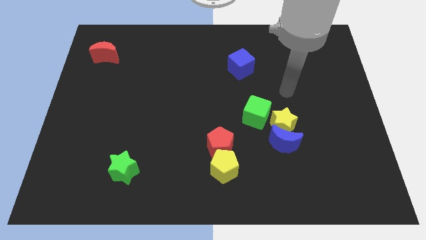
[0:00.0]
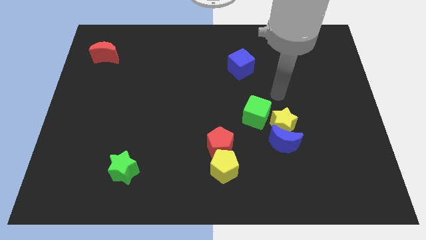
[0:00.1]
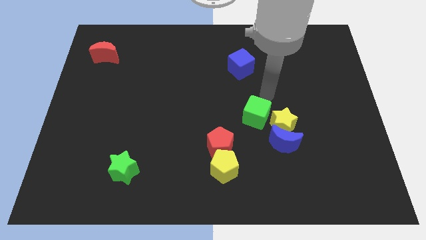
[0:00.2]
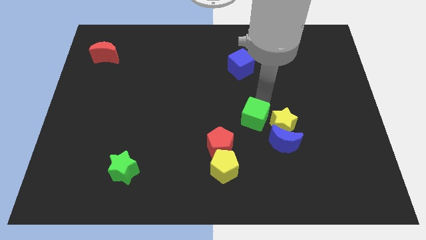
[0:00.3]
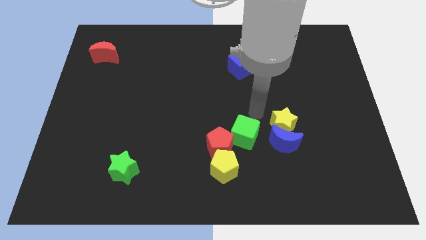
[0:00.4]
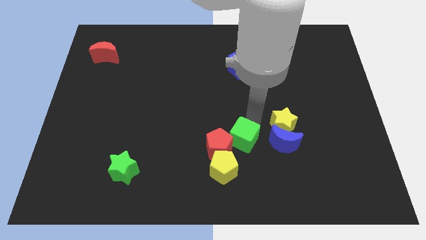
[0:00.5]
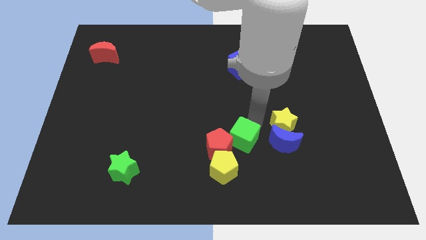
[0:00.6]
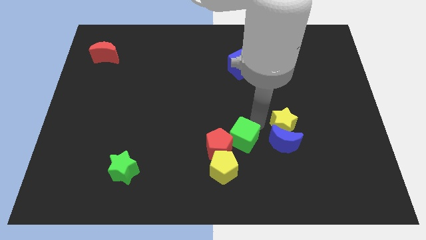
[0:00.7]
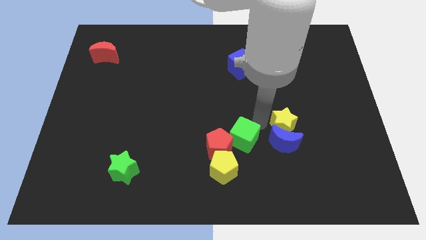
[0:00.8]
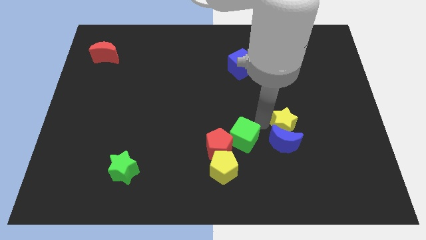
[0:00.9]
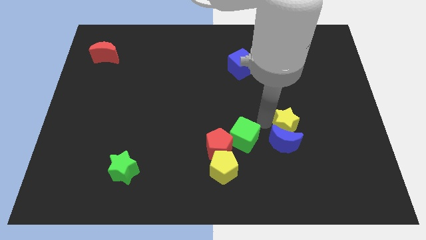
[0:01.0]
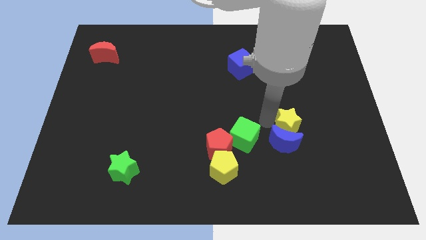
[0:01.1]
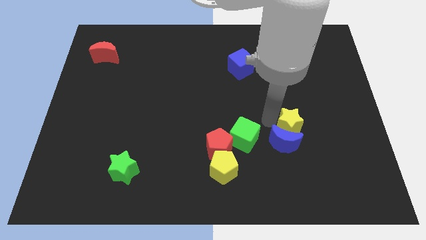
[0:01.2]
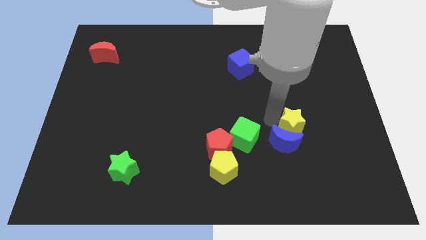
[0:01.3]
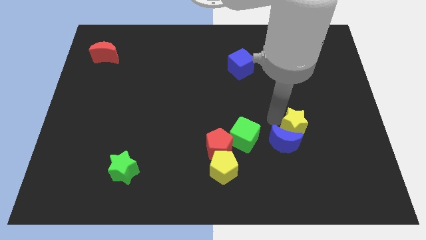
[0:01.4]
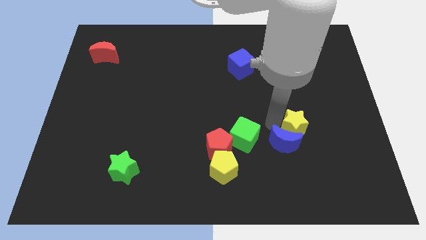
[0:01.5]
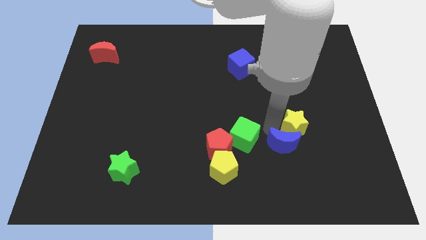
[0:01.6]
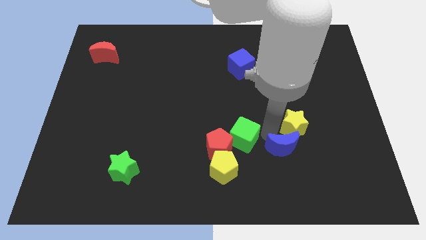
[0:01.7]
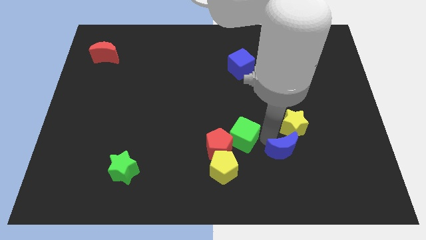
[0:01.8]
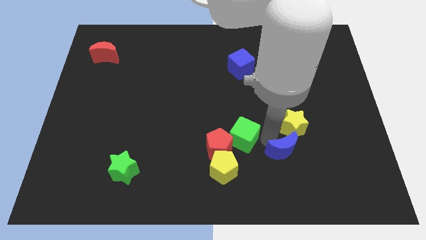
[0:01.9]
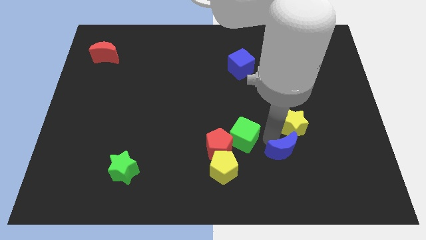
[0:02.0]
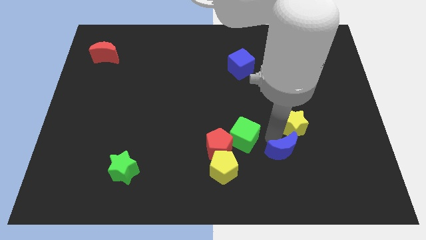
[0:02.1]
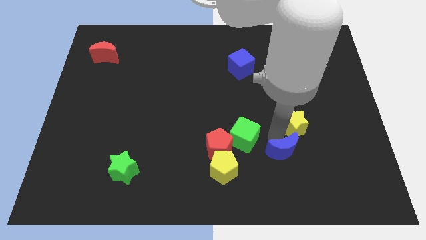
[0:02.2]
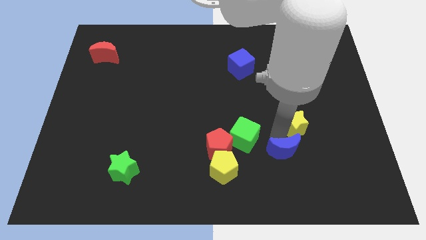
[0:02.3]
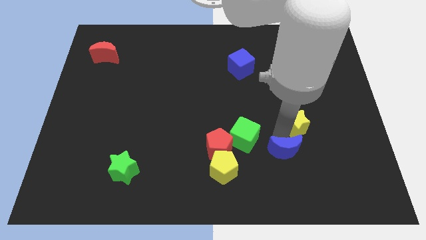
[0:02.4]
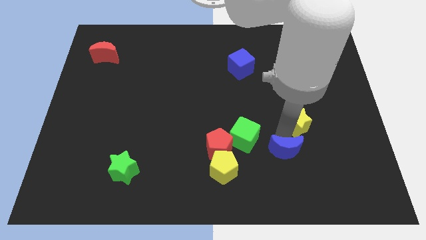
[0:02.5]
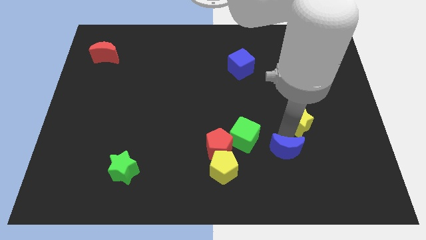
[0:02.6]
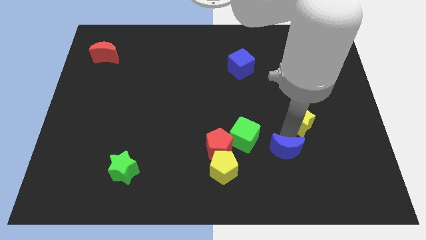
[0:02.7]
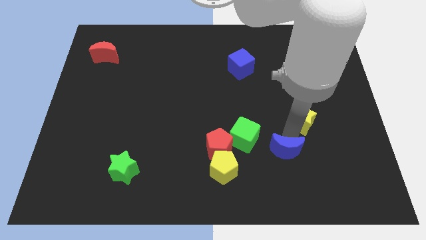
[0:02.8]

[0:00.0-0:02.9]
separate the yellow star from the blue moon and green cube

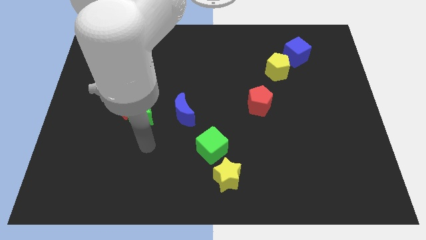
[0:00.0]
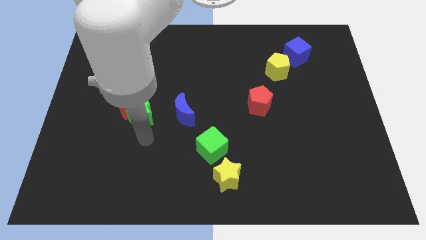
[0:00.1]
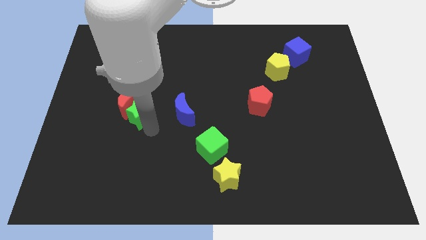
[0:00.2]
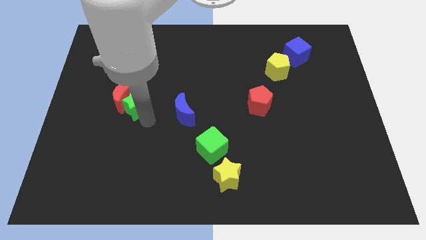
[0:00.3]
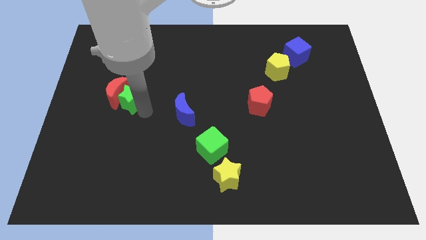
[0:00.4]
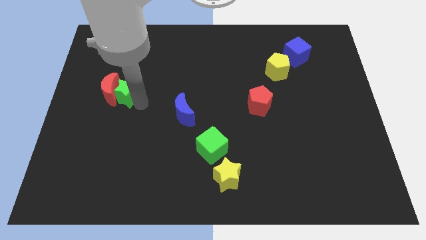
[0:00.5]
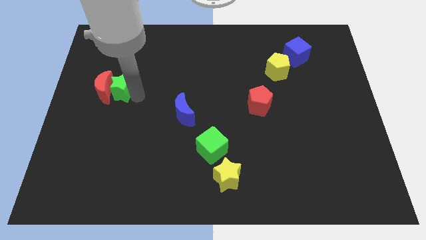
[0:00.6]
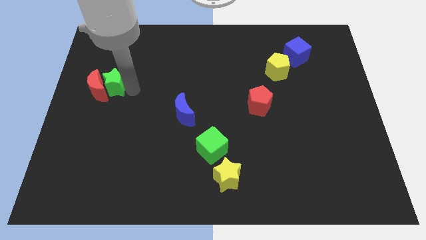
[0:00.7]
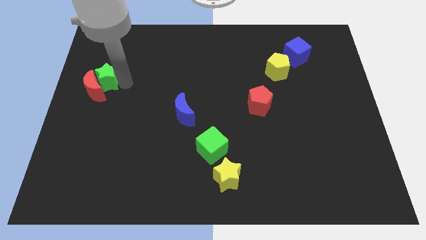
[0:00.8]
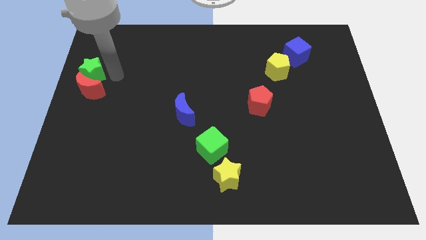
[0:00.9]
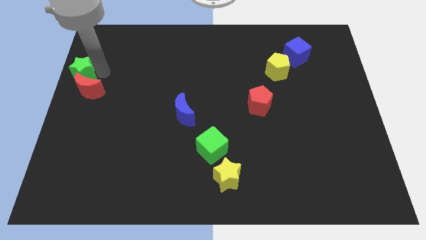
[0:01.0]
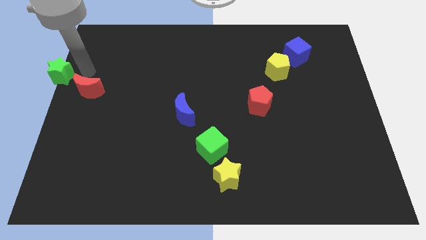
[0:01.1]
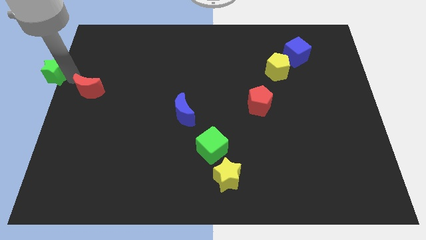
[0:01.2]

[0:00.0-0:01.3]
pull the red moon apart from the green star

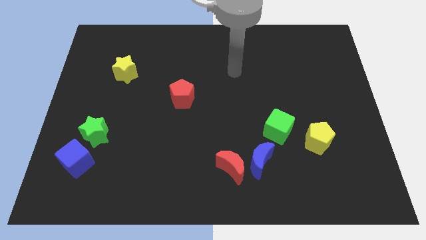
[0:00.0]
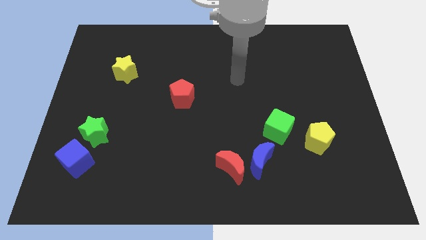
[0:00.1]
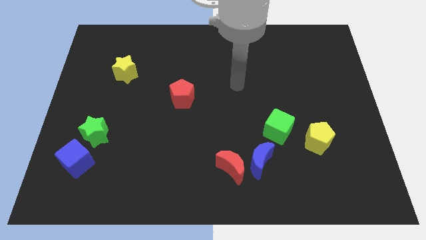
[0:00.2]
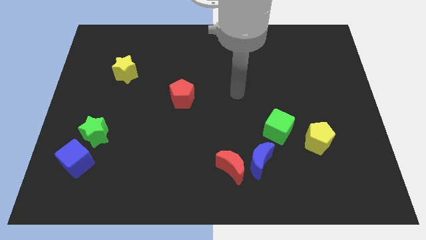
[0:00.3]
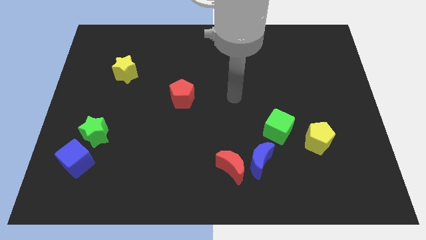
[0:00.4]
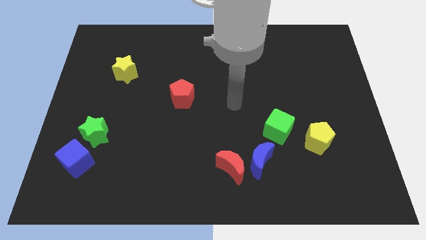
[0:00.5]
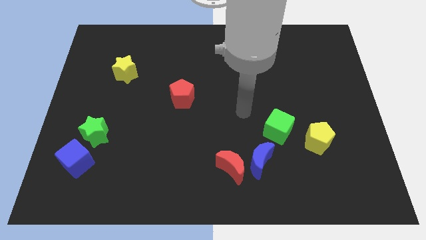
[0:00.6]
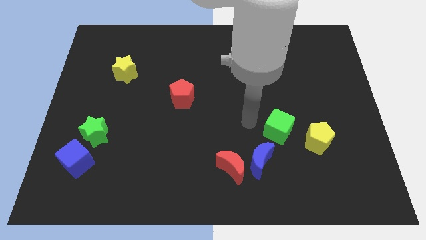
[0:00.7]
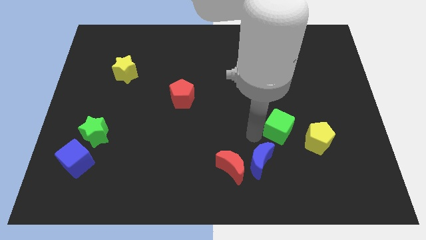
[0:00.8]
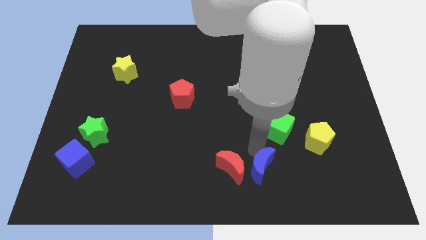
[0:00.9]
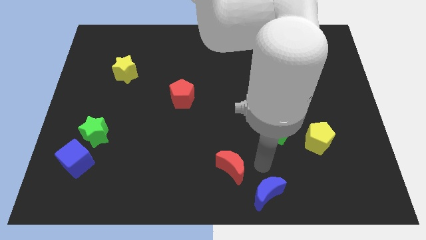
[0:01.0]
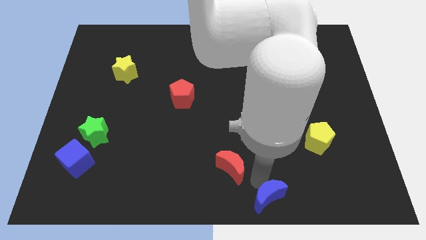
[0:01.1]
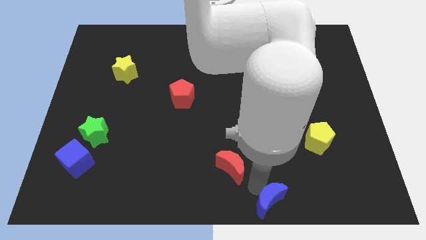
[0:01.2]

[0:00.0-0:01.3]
separate the red moon from the blue moon

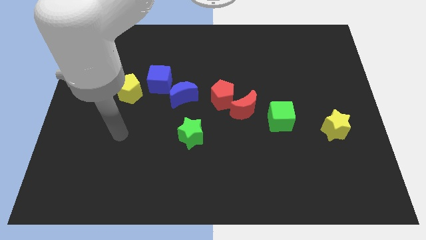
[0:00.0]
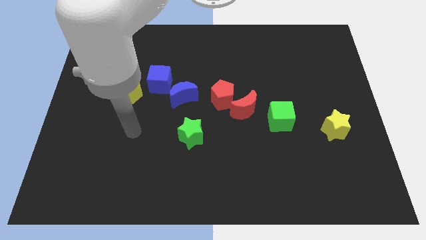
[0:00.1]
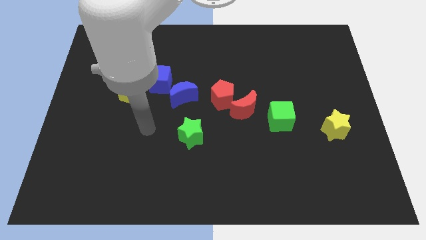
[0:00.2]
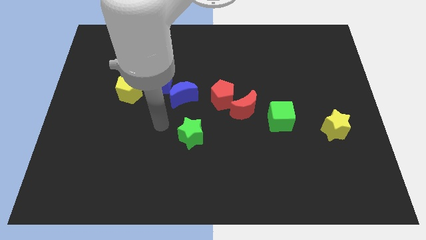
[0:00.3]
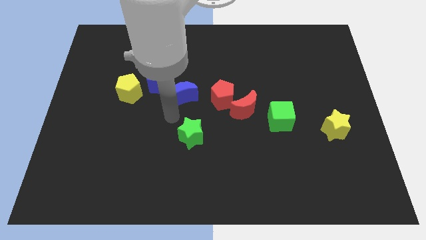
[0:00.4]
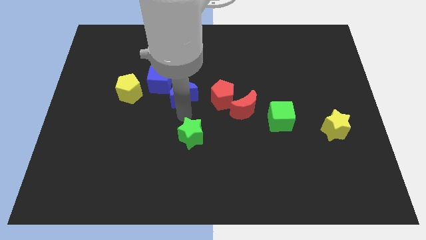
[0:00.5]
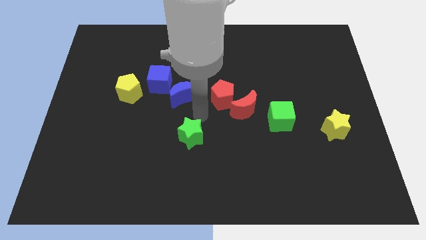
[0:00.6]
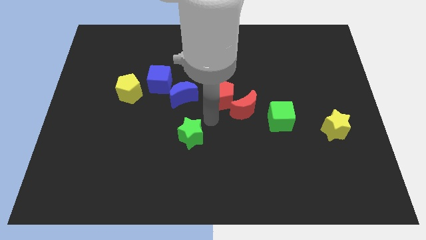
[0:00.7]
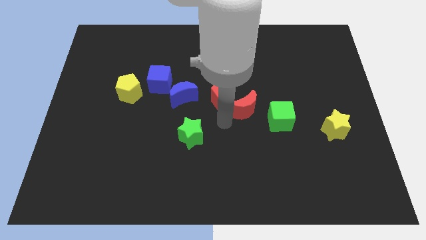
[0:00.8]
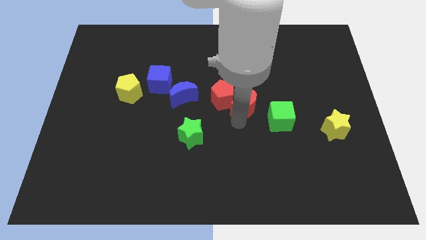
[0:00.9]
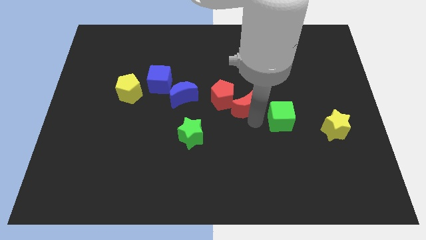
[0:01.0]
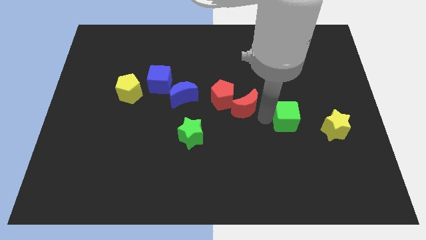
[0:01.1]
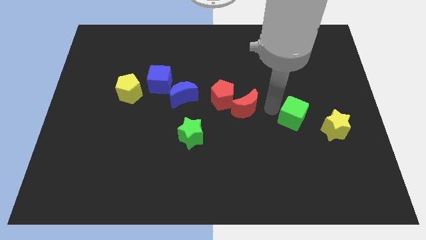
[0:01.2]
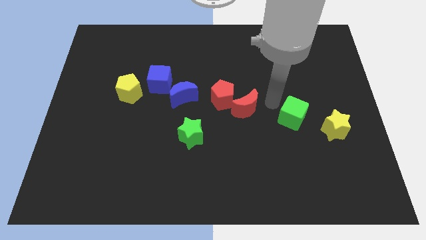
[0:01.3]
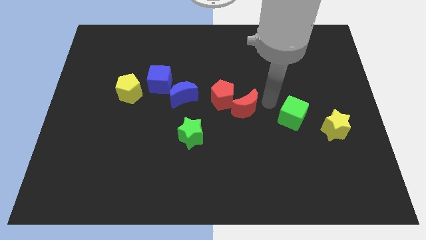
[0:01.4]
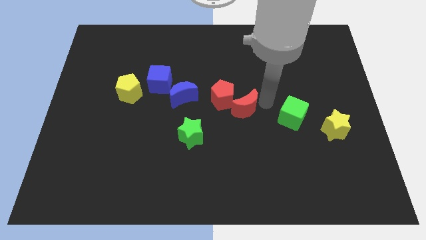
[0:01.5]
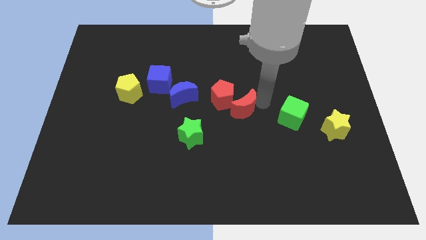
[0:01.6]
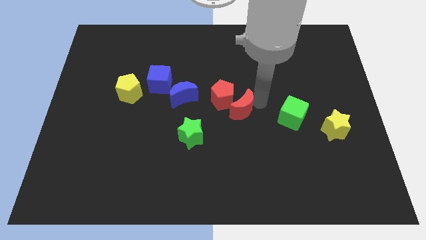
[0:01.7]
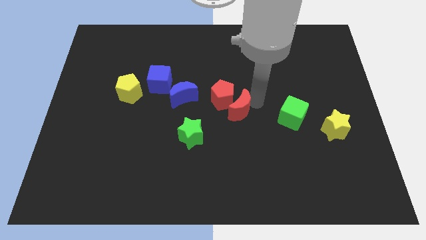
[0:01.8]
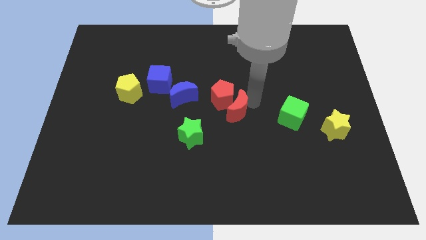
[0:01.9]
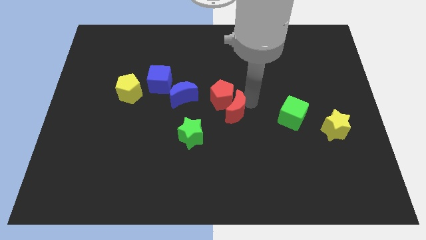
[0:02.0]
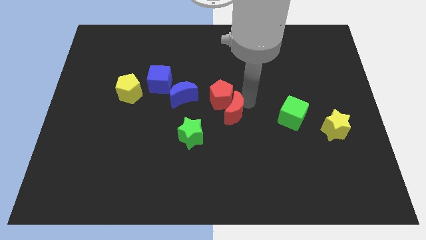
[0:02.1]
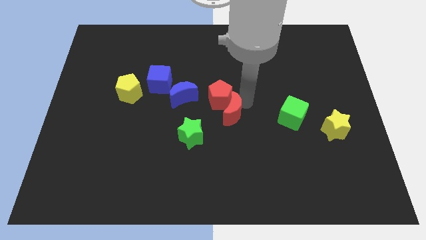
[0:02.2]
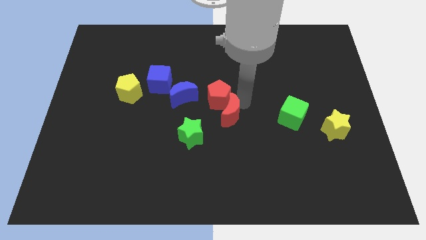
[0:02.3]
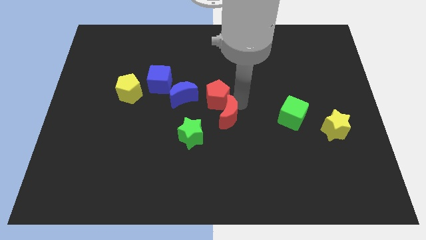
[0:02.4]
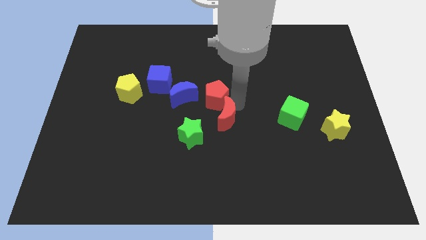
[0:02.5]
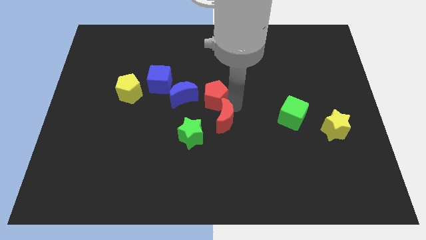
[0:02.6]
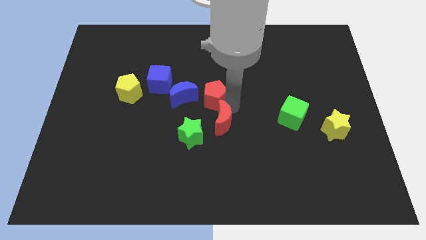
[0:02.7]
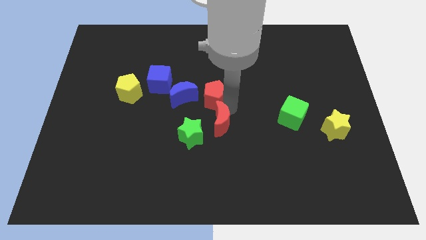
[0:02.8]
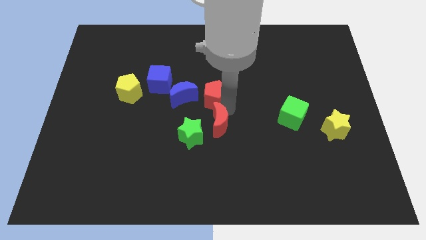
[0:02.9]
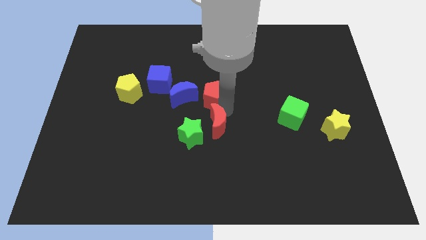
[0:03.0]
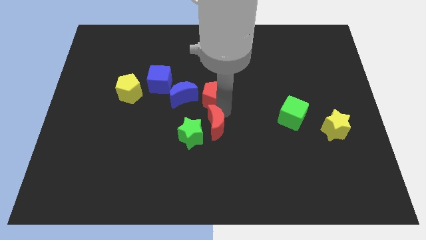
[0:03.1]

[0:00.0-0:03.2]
move the red moon away from the red pentagon and green cube

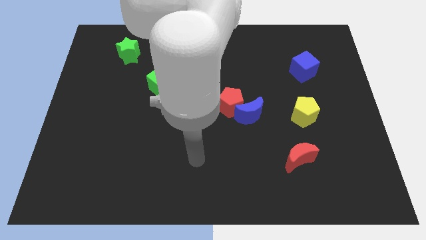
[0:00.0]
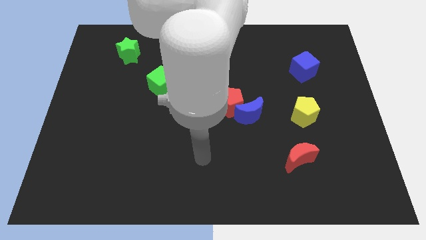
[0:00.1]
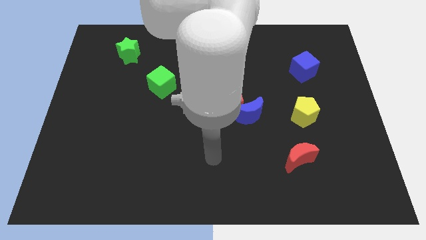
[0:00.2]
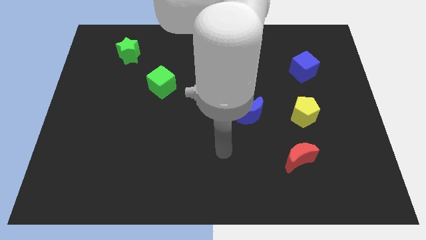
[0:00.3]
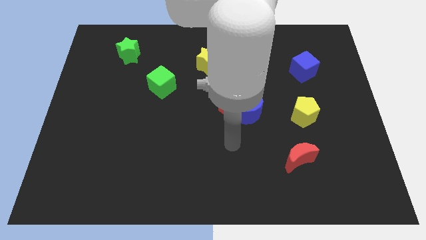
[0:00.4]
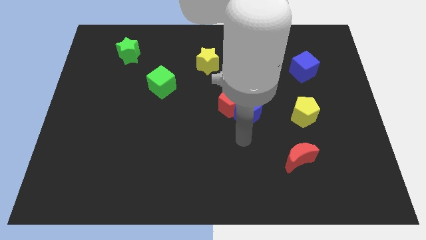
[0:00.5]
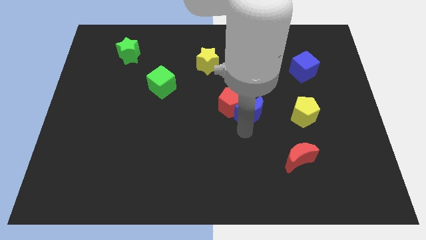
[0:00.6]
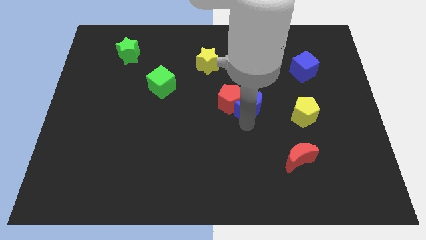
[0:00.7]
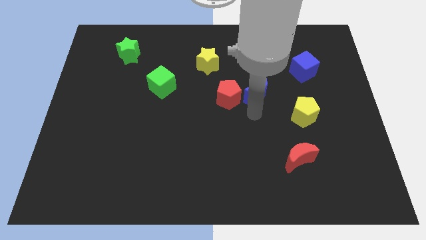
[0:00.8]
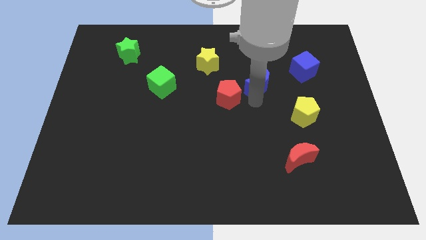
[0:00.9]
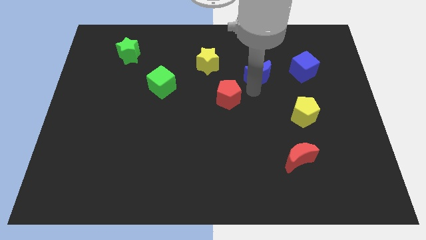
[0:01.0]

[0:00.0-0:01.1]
move the red pentagon away from the blue moon
